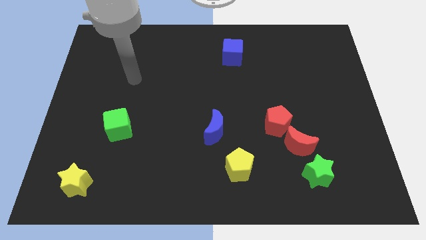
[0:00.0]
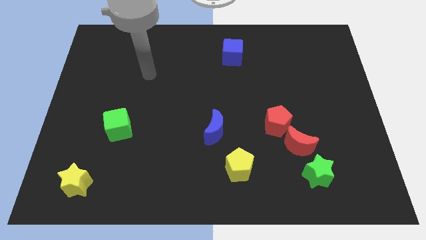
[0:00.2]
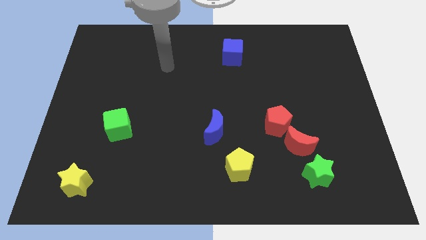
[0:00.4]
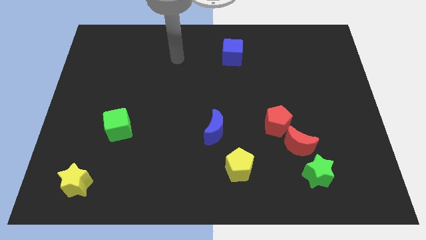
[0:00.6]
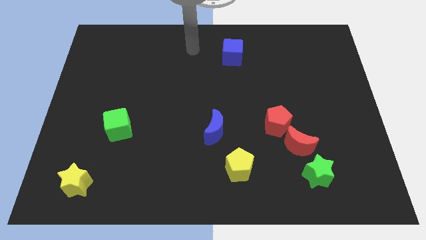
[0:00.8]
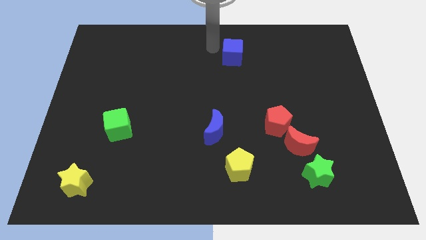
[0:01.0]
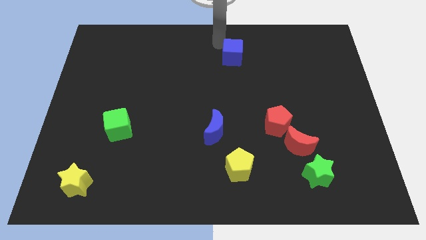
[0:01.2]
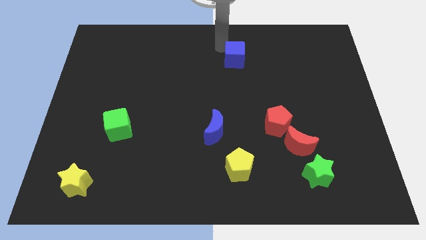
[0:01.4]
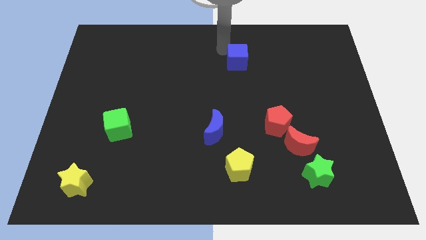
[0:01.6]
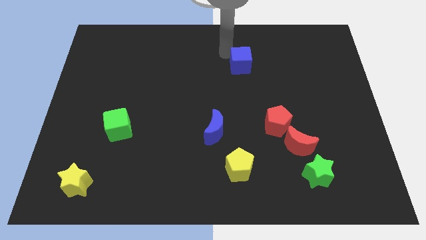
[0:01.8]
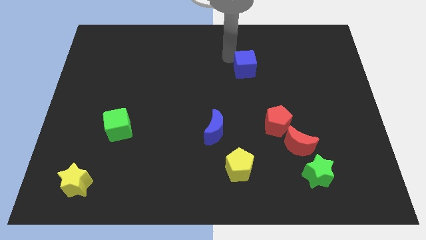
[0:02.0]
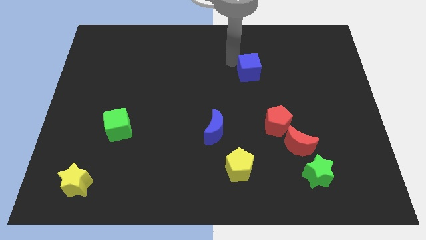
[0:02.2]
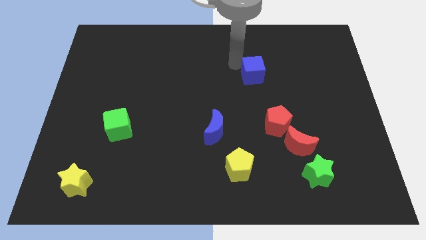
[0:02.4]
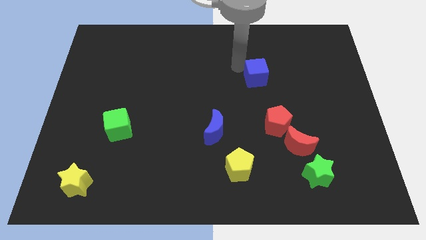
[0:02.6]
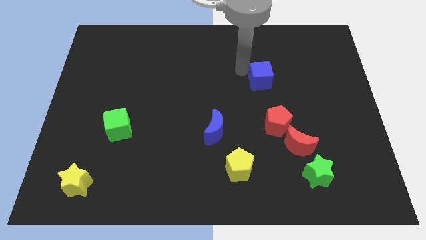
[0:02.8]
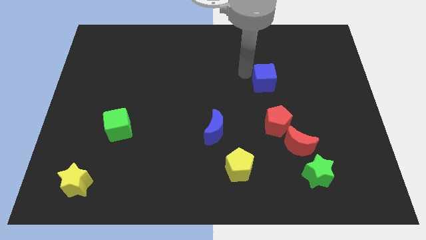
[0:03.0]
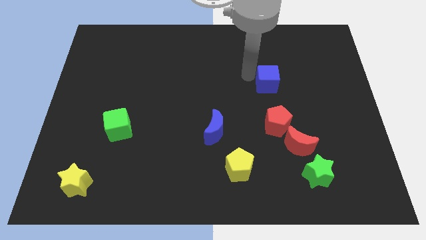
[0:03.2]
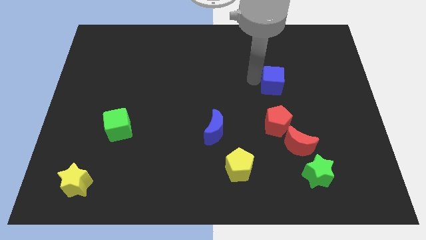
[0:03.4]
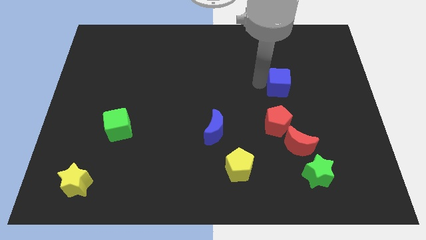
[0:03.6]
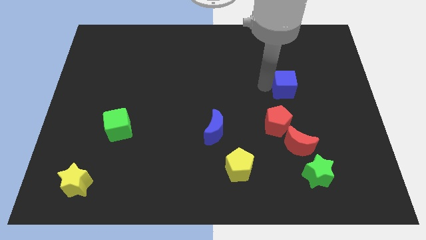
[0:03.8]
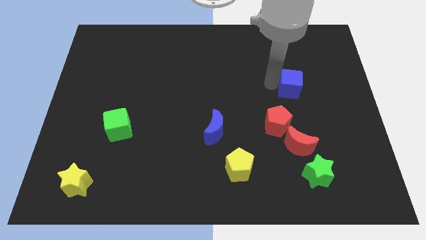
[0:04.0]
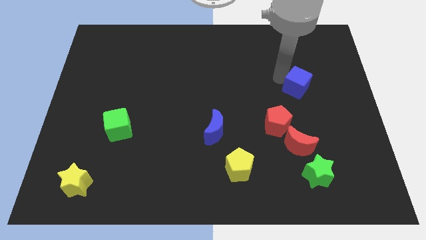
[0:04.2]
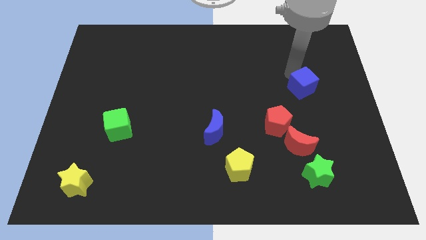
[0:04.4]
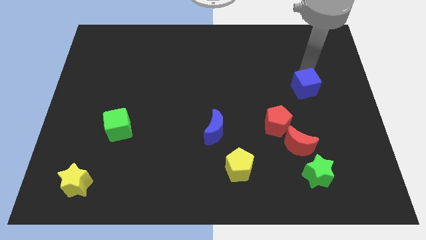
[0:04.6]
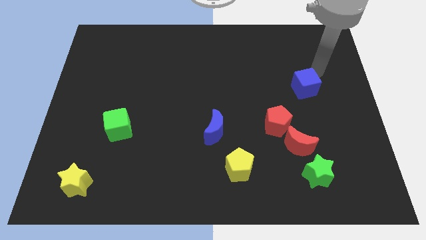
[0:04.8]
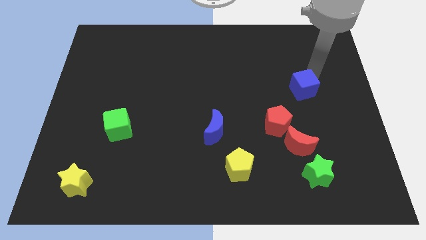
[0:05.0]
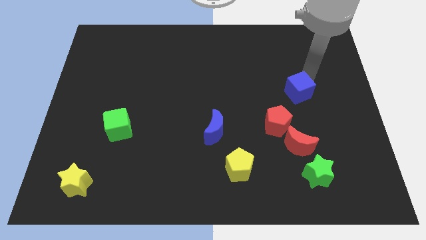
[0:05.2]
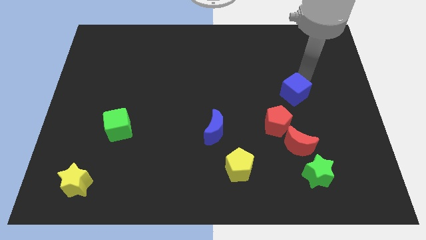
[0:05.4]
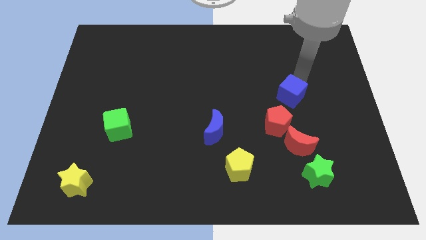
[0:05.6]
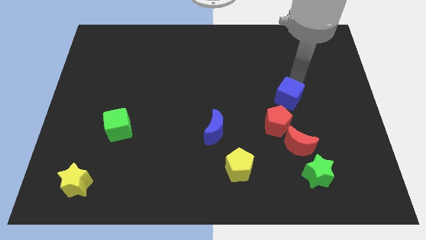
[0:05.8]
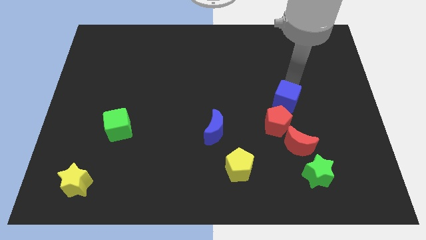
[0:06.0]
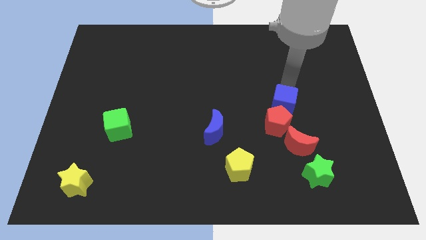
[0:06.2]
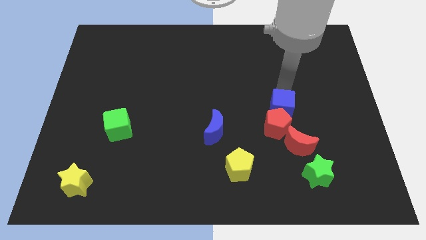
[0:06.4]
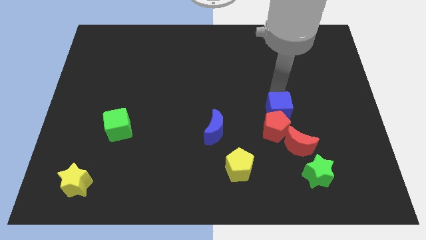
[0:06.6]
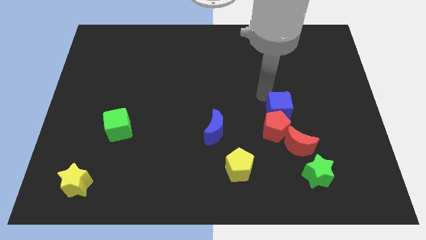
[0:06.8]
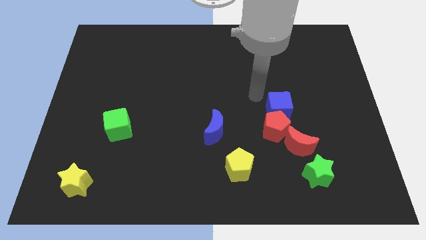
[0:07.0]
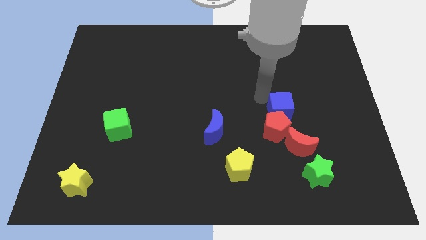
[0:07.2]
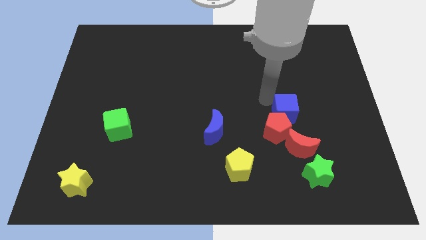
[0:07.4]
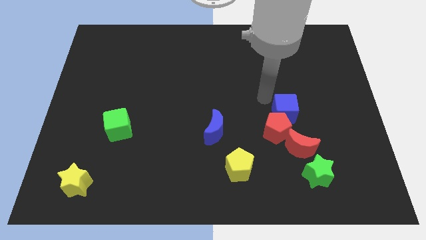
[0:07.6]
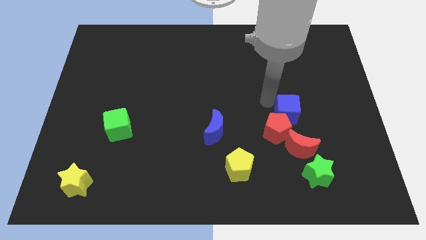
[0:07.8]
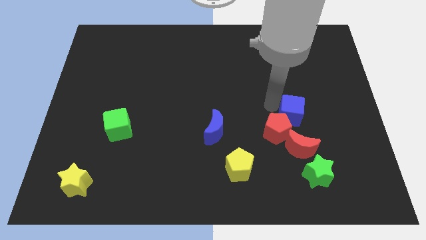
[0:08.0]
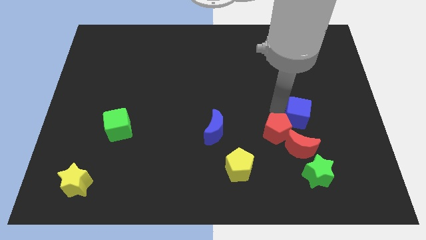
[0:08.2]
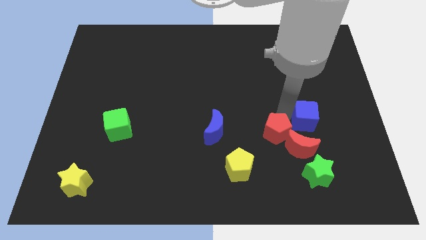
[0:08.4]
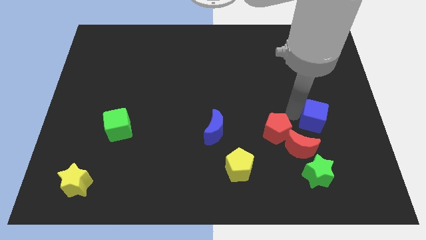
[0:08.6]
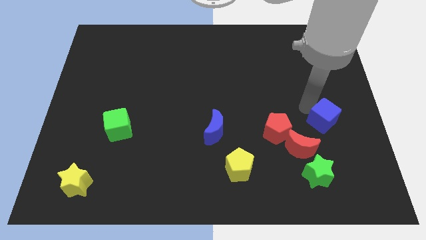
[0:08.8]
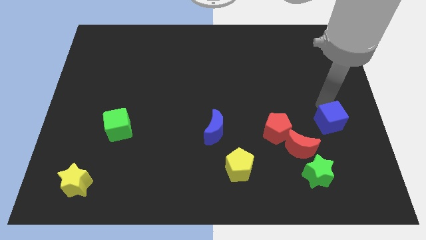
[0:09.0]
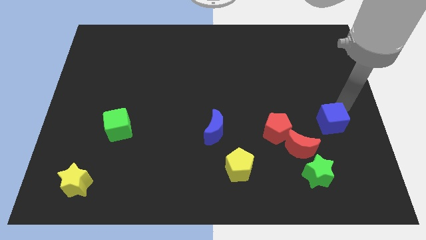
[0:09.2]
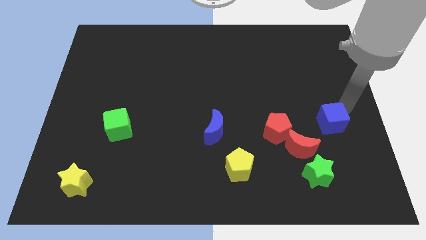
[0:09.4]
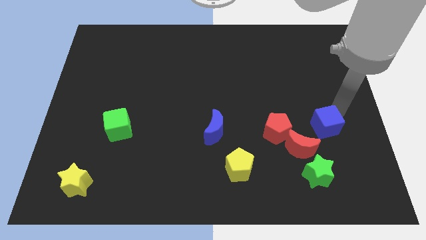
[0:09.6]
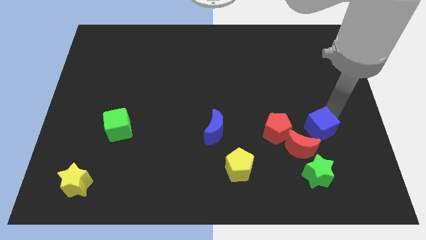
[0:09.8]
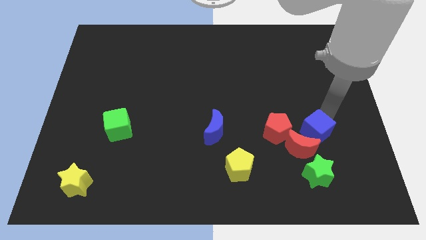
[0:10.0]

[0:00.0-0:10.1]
put the blue cube to the red moon

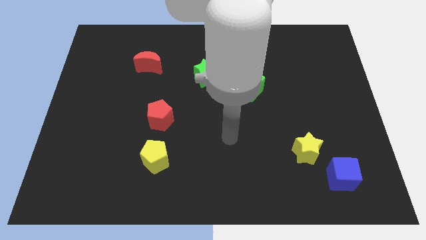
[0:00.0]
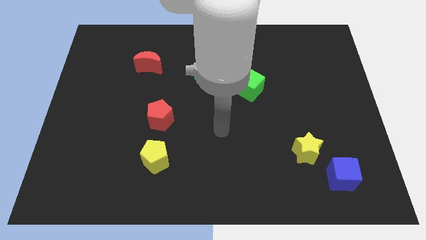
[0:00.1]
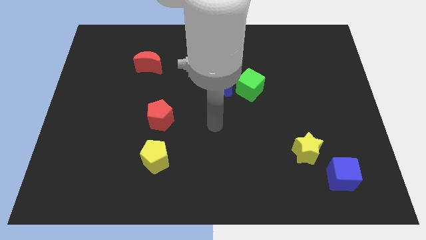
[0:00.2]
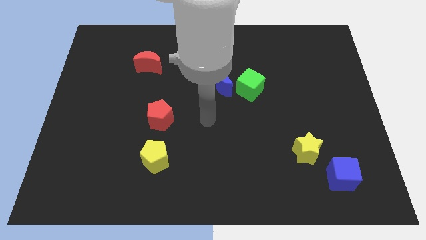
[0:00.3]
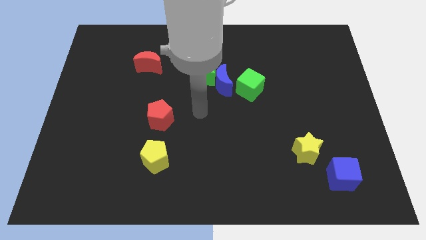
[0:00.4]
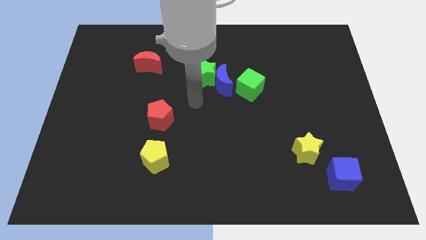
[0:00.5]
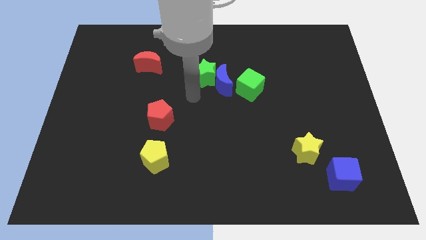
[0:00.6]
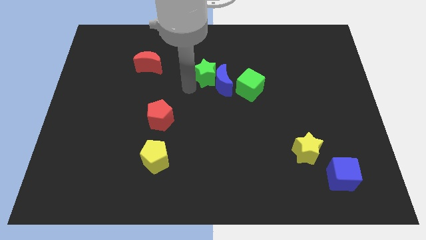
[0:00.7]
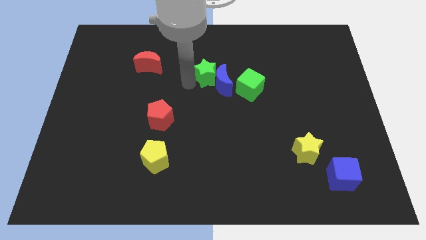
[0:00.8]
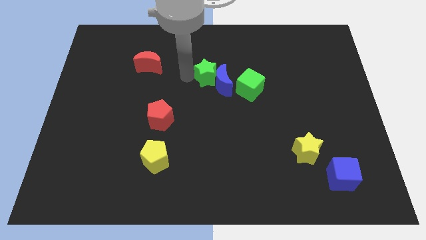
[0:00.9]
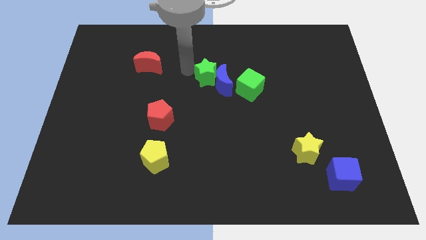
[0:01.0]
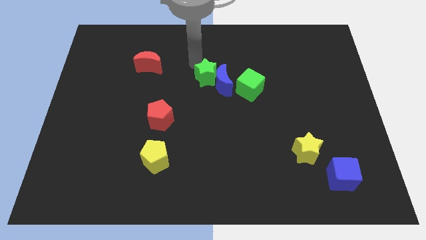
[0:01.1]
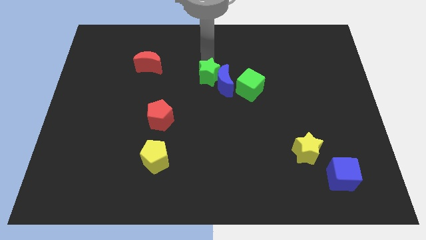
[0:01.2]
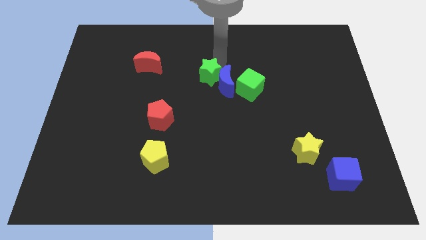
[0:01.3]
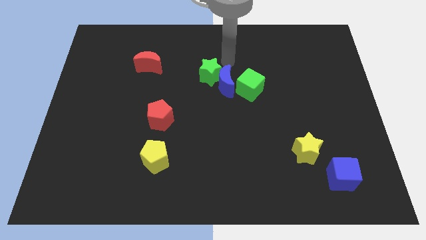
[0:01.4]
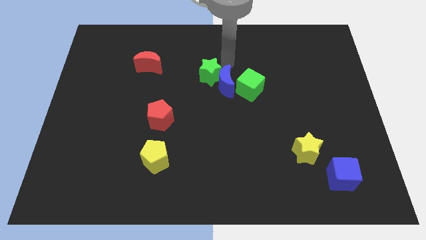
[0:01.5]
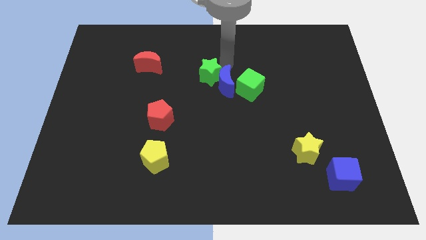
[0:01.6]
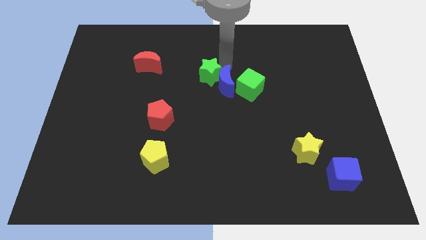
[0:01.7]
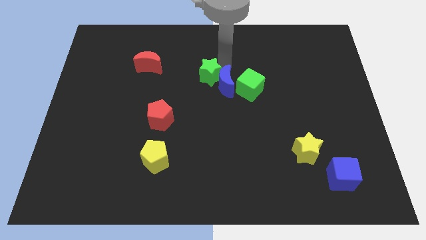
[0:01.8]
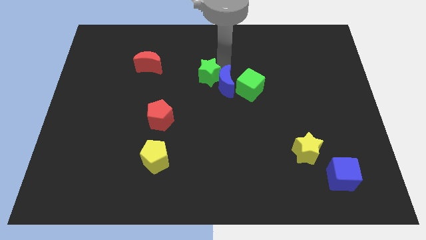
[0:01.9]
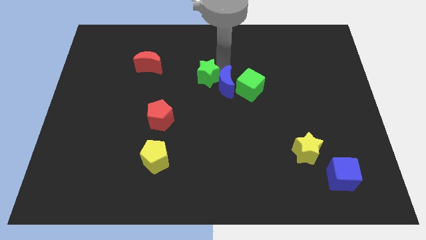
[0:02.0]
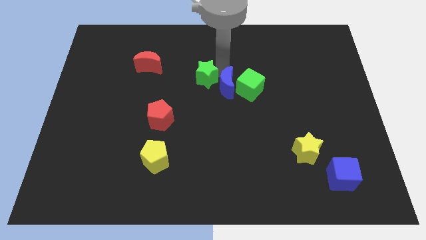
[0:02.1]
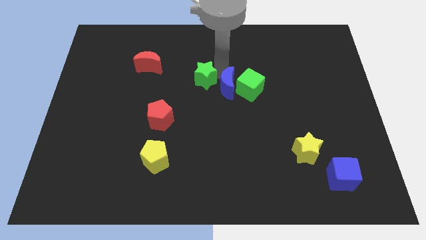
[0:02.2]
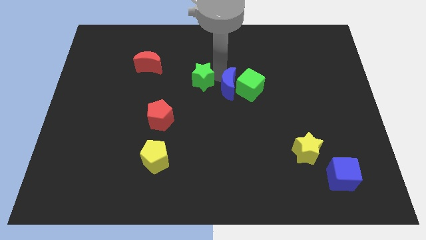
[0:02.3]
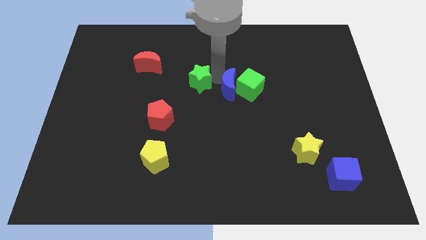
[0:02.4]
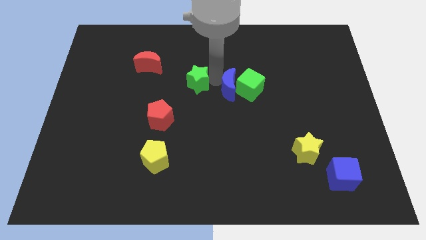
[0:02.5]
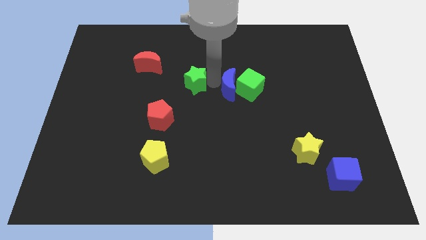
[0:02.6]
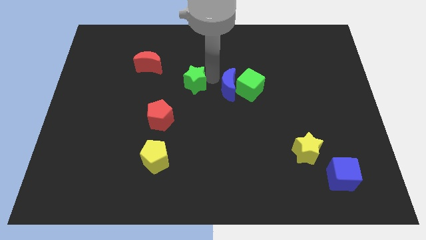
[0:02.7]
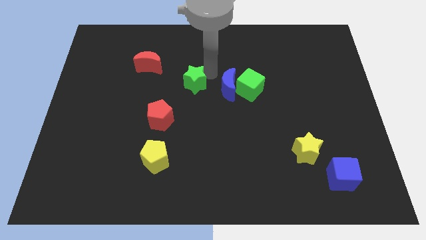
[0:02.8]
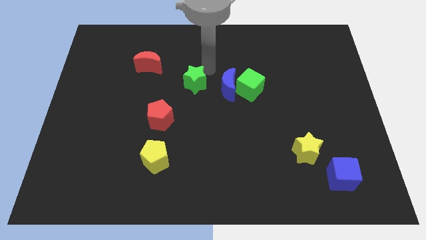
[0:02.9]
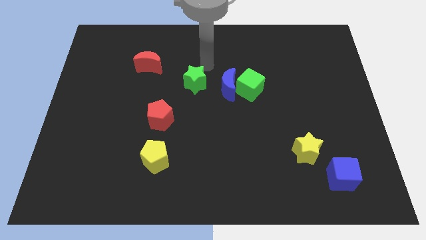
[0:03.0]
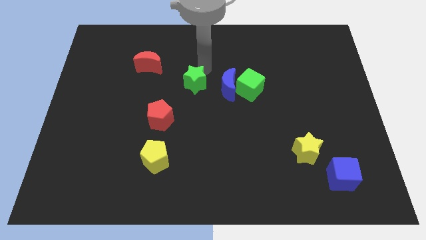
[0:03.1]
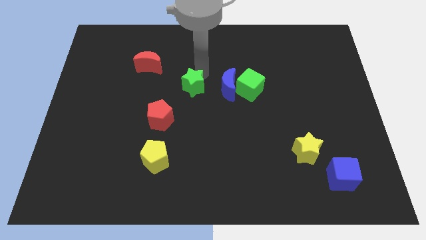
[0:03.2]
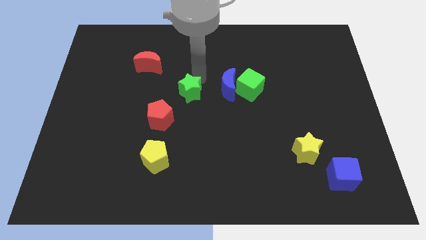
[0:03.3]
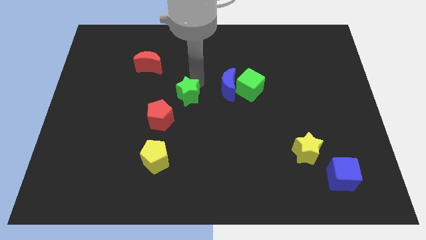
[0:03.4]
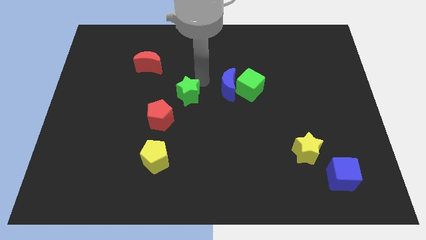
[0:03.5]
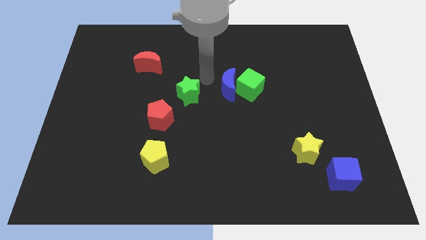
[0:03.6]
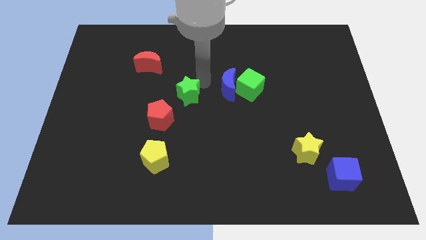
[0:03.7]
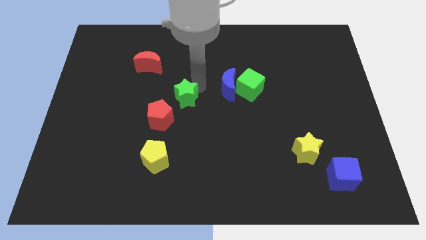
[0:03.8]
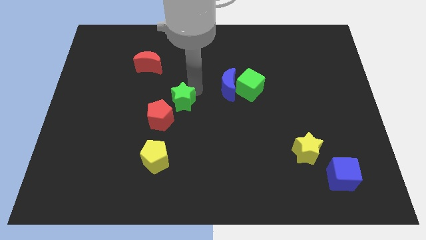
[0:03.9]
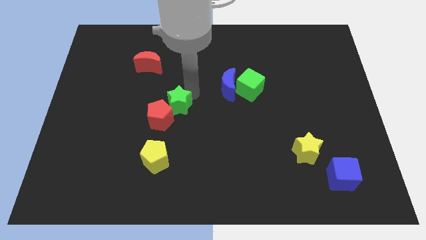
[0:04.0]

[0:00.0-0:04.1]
move the green star to the red pentagon
